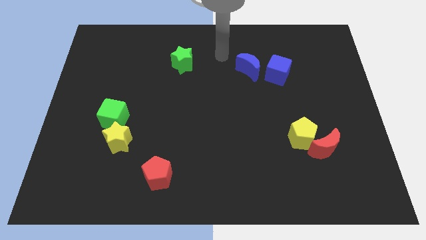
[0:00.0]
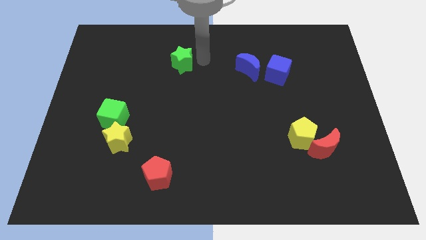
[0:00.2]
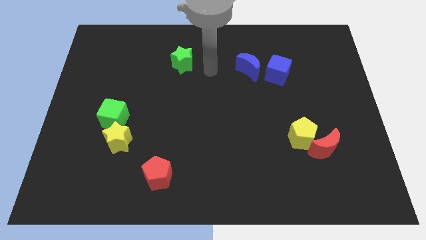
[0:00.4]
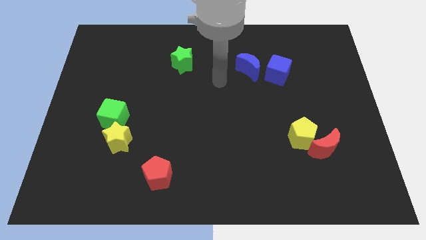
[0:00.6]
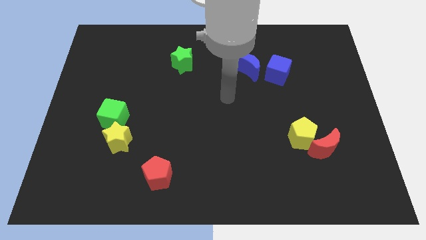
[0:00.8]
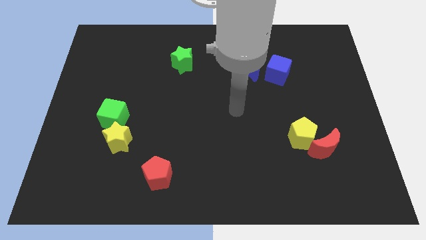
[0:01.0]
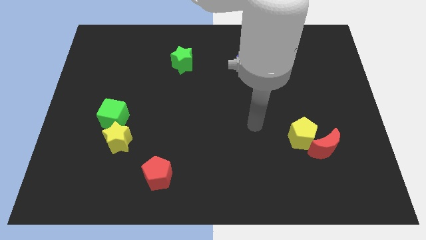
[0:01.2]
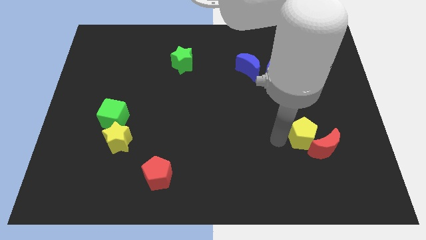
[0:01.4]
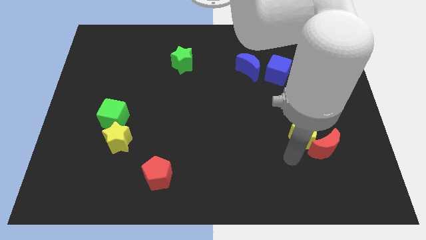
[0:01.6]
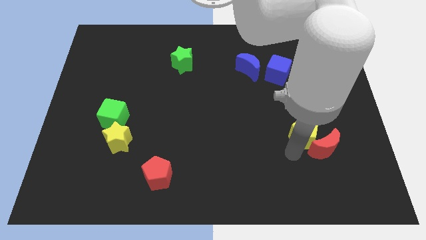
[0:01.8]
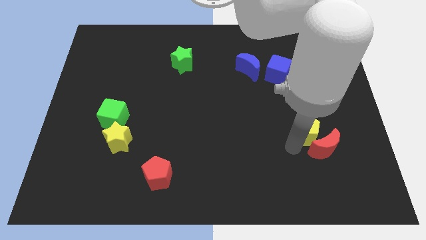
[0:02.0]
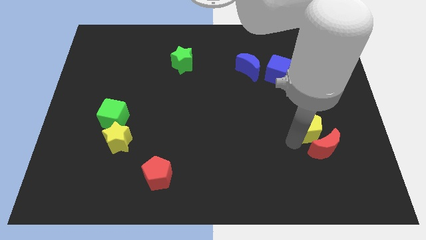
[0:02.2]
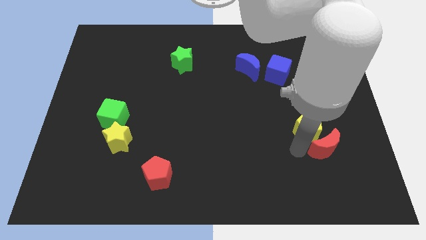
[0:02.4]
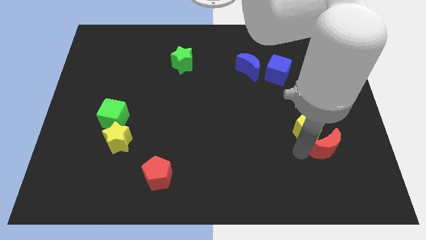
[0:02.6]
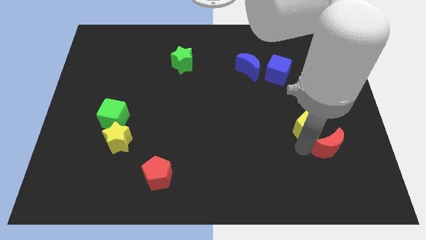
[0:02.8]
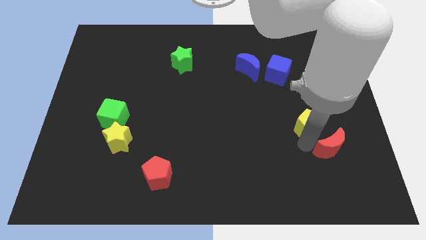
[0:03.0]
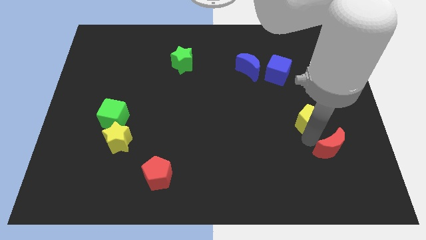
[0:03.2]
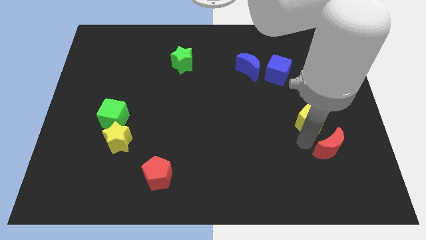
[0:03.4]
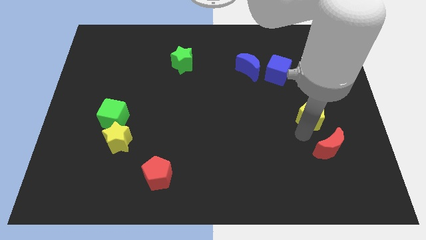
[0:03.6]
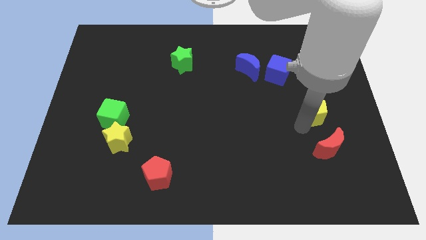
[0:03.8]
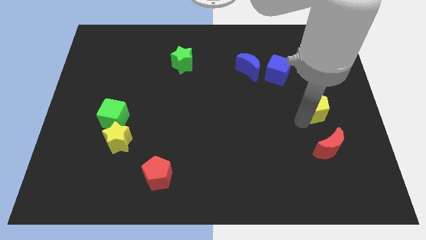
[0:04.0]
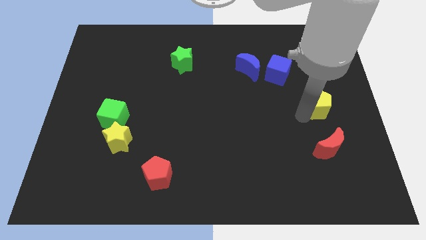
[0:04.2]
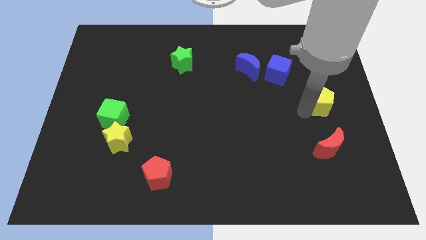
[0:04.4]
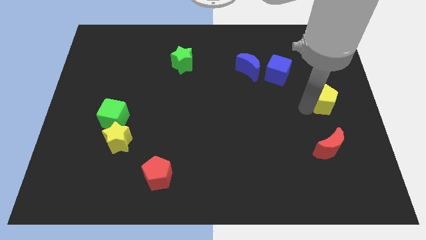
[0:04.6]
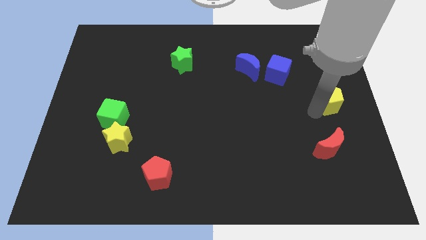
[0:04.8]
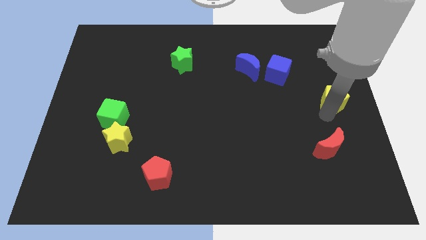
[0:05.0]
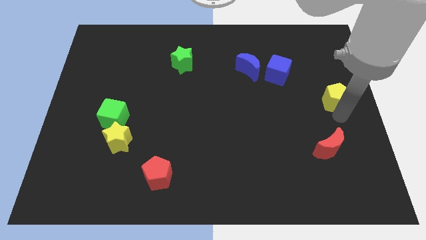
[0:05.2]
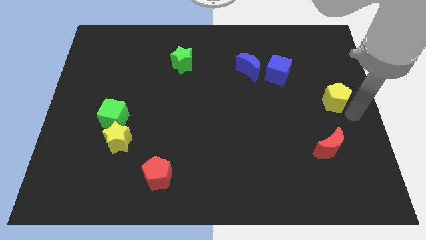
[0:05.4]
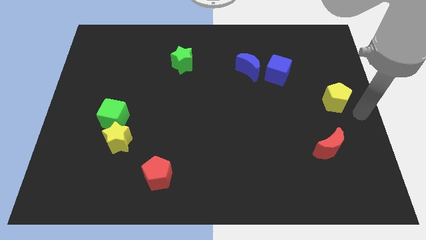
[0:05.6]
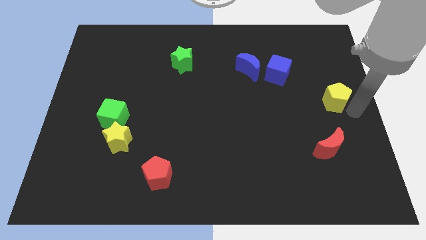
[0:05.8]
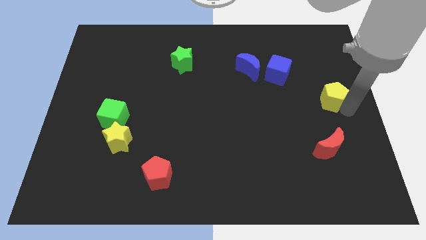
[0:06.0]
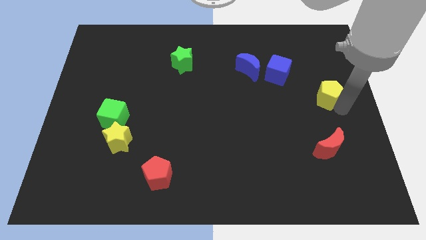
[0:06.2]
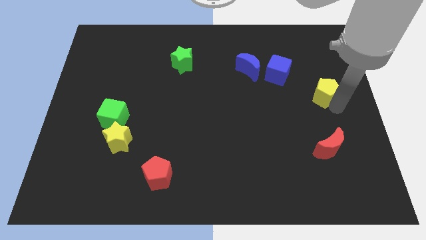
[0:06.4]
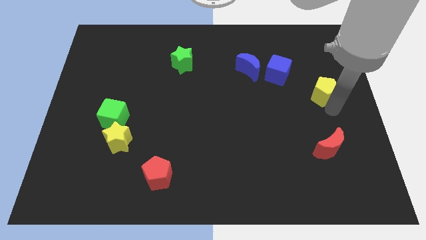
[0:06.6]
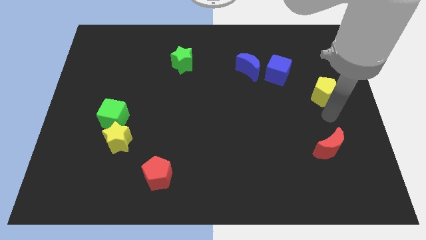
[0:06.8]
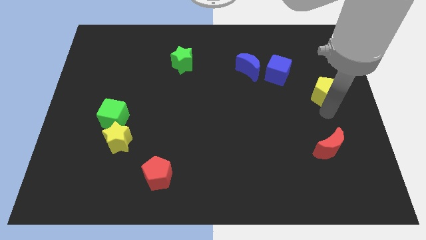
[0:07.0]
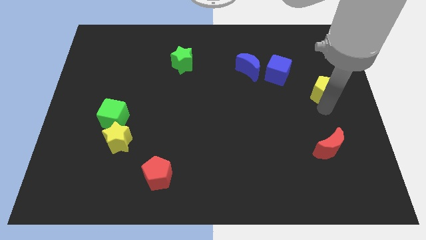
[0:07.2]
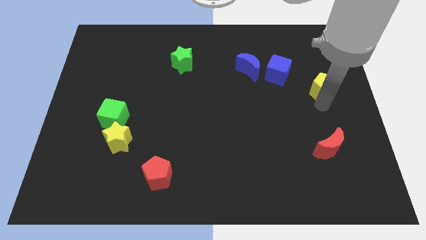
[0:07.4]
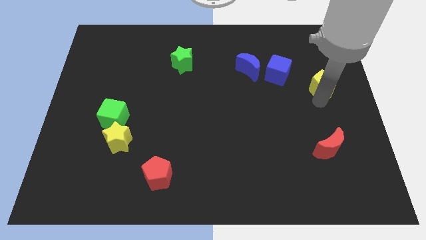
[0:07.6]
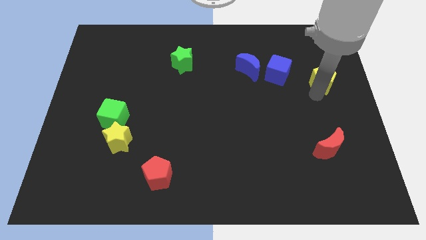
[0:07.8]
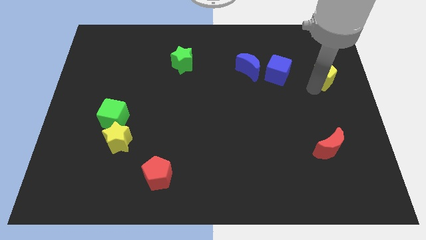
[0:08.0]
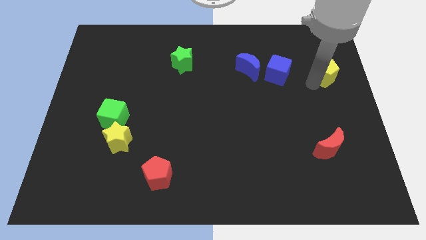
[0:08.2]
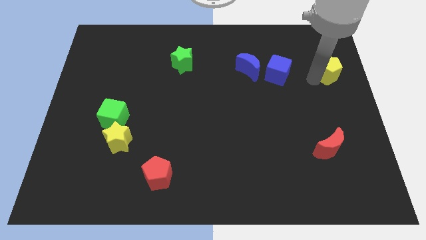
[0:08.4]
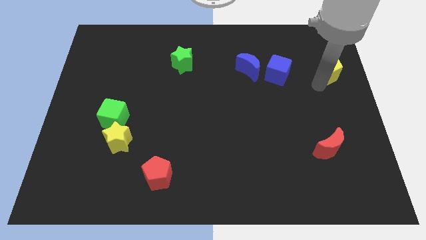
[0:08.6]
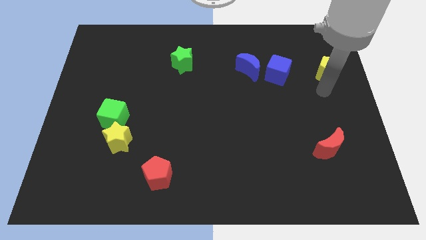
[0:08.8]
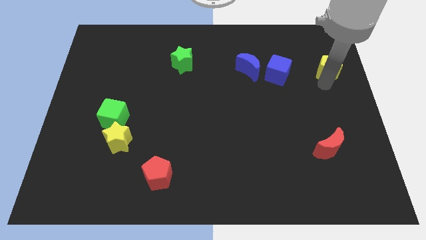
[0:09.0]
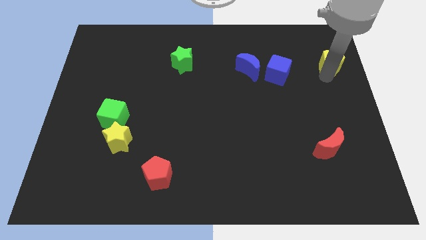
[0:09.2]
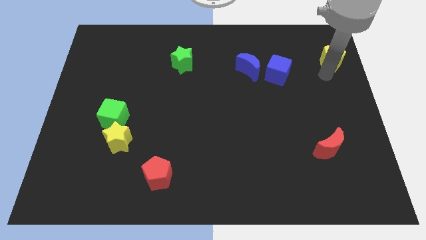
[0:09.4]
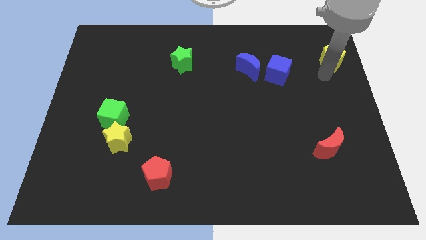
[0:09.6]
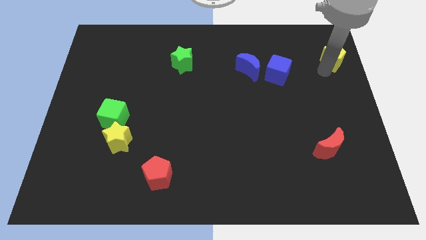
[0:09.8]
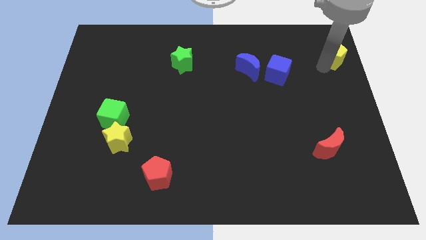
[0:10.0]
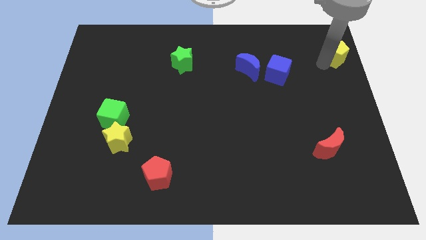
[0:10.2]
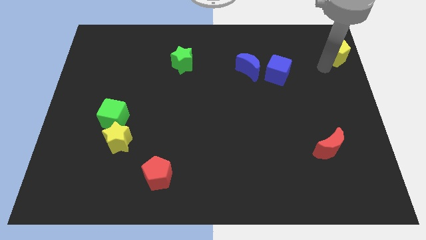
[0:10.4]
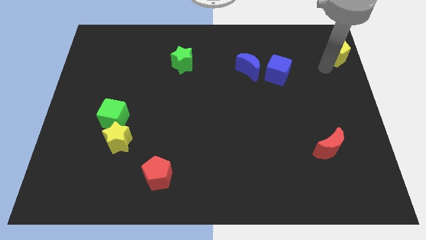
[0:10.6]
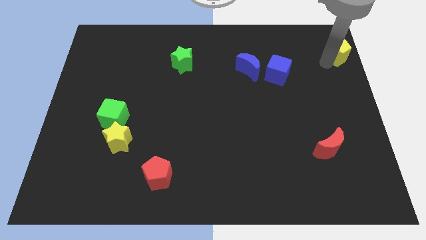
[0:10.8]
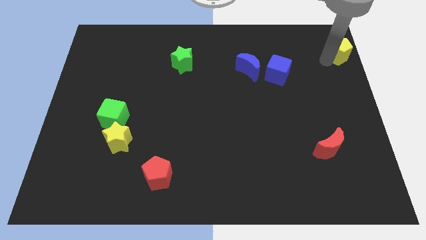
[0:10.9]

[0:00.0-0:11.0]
move the yellow pentagon to the top right of the board

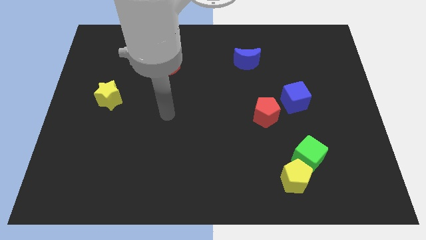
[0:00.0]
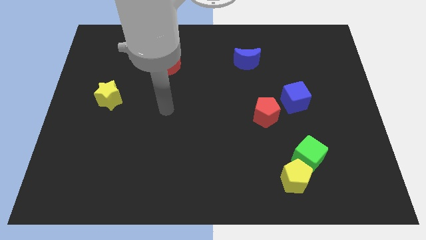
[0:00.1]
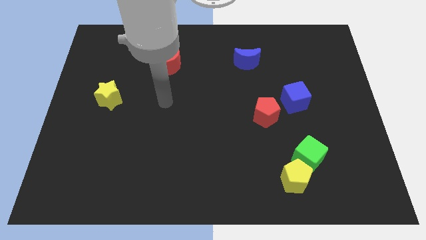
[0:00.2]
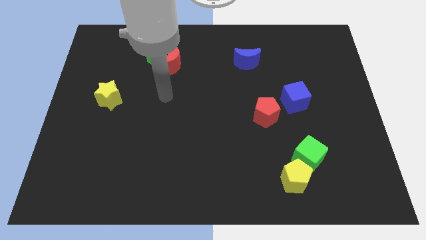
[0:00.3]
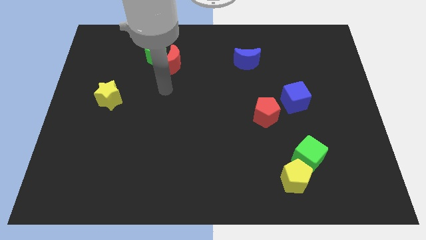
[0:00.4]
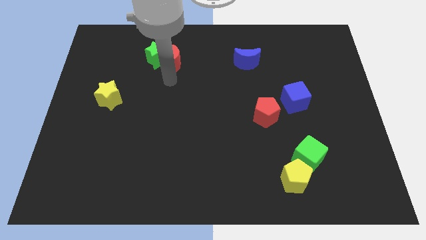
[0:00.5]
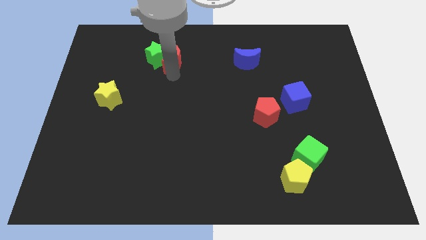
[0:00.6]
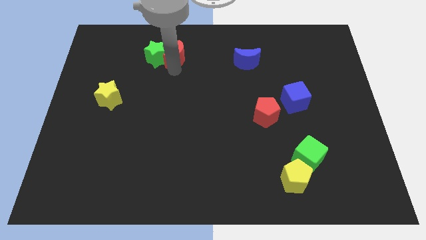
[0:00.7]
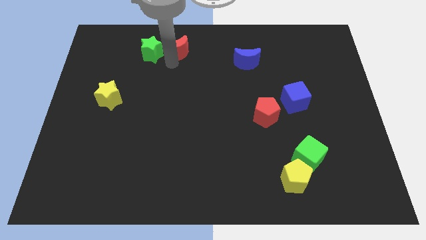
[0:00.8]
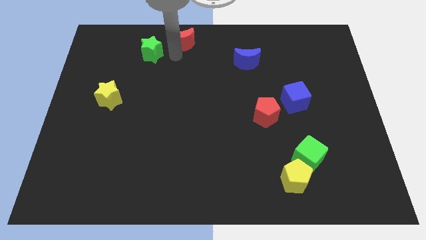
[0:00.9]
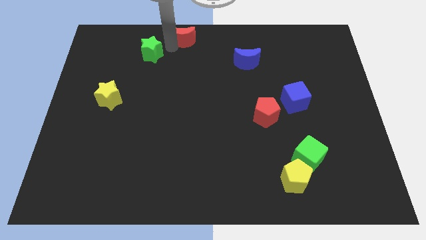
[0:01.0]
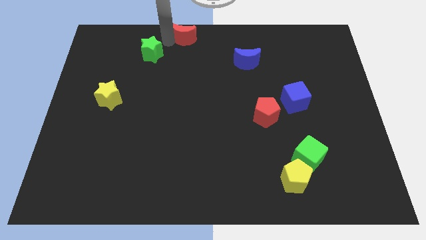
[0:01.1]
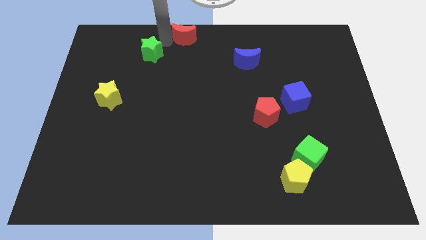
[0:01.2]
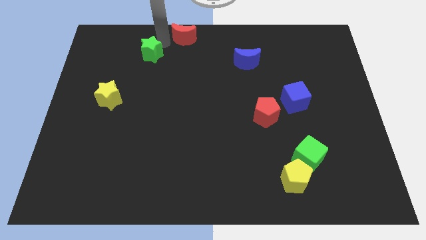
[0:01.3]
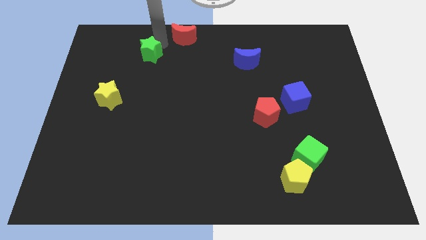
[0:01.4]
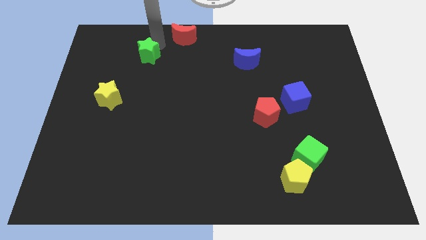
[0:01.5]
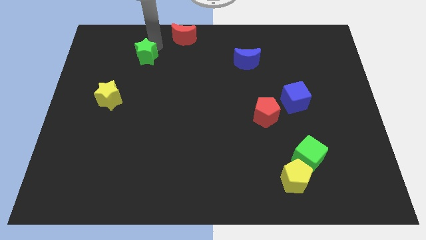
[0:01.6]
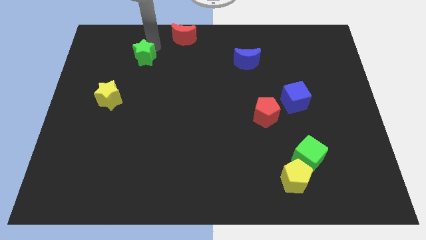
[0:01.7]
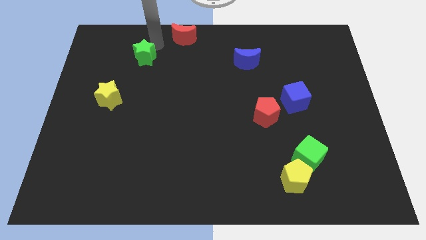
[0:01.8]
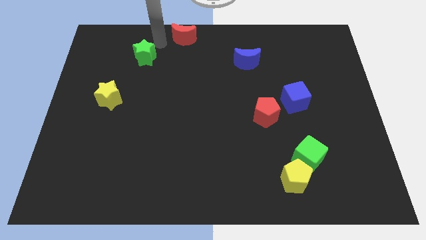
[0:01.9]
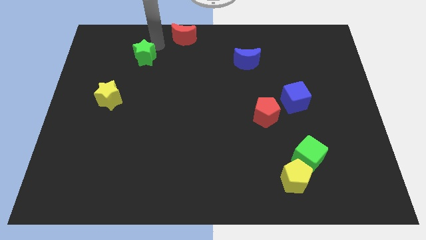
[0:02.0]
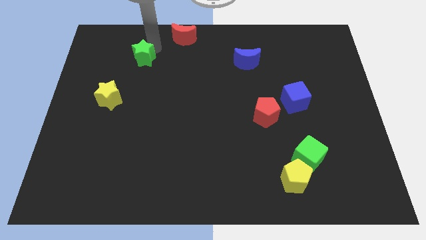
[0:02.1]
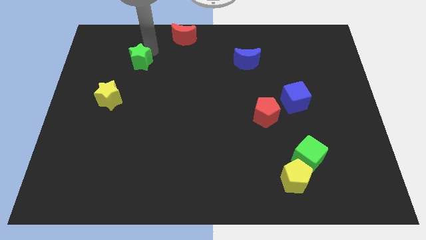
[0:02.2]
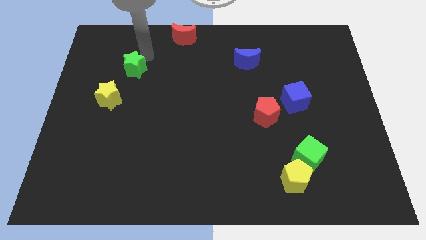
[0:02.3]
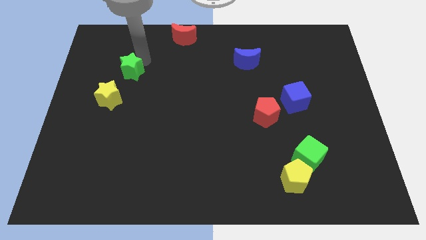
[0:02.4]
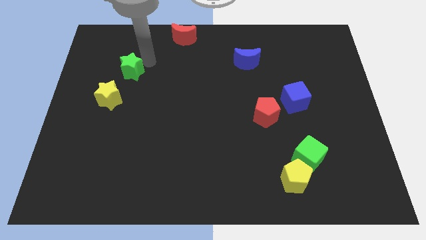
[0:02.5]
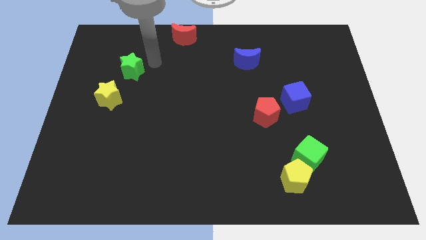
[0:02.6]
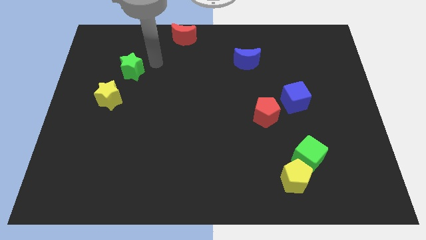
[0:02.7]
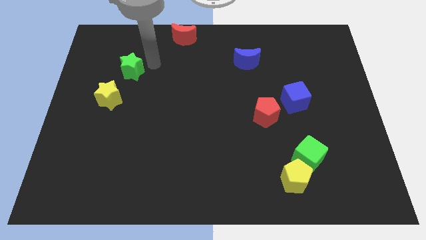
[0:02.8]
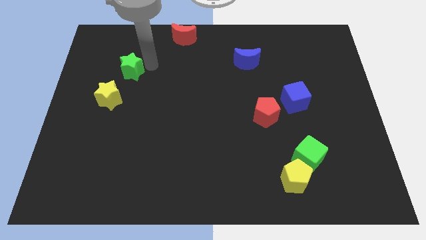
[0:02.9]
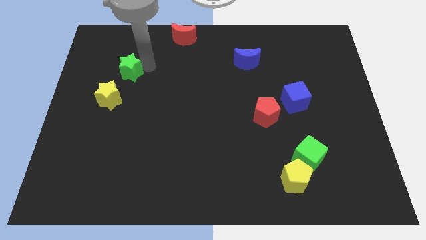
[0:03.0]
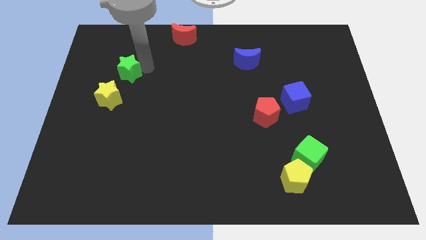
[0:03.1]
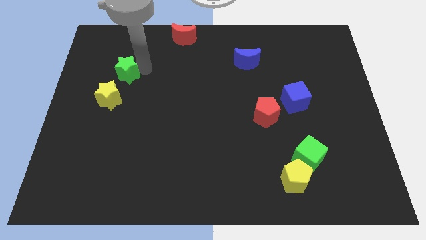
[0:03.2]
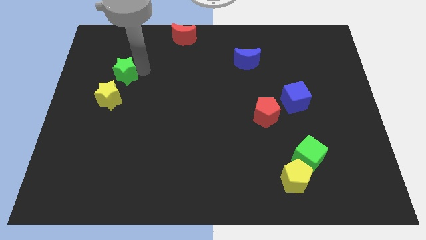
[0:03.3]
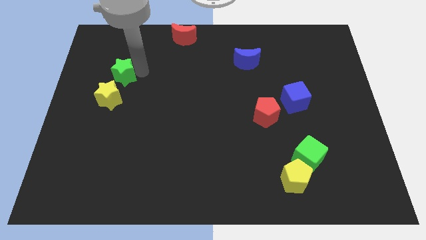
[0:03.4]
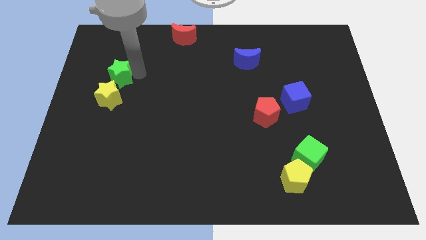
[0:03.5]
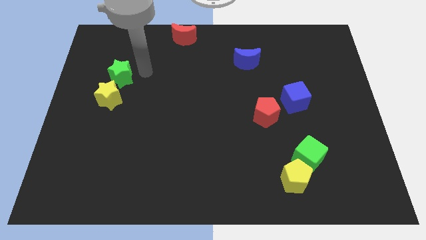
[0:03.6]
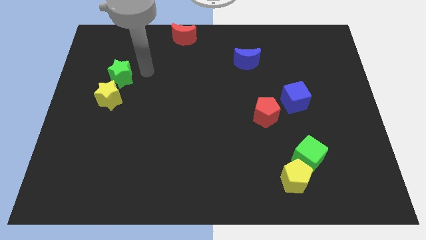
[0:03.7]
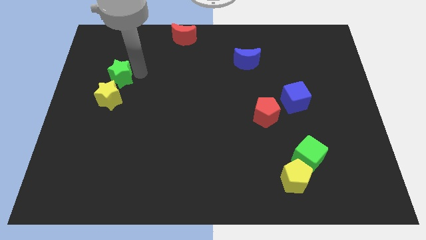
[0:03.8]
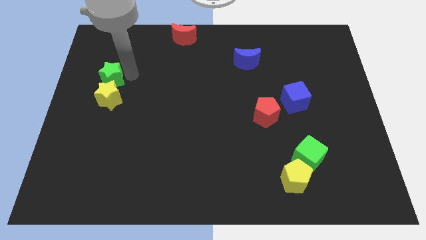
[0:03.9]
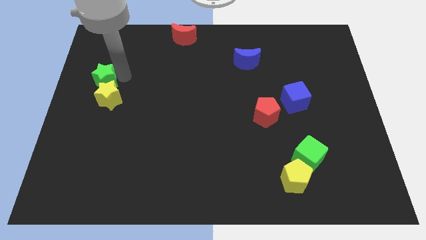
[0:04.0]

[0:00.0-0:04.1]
push the green star to the left side
